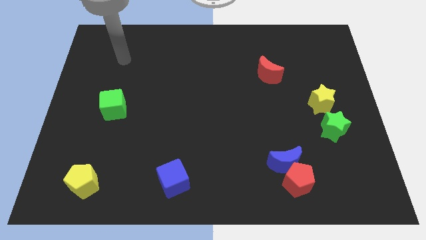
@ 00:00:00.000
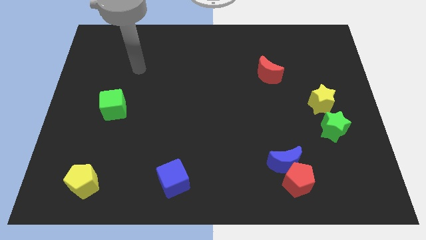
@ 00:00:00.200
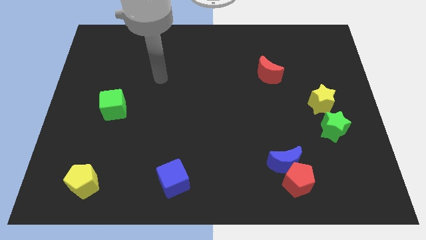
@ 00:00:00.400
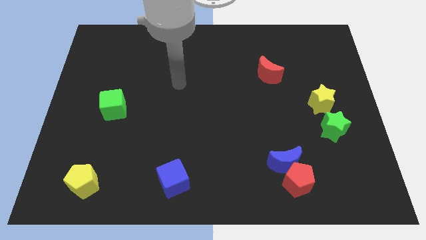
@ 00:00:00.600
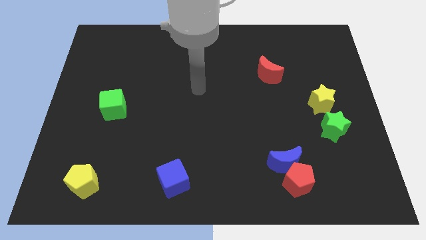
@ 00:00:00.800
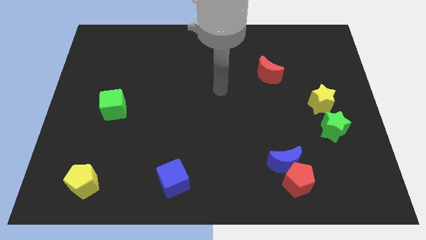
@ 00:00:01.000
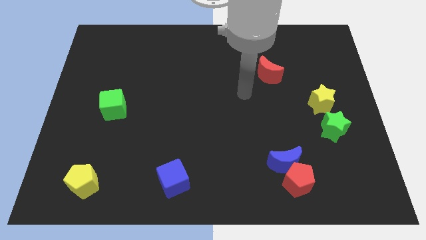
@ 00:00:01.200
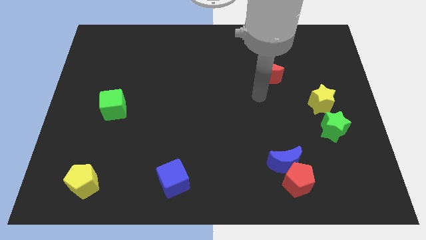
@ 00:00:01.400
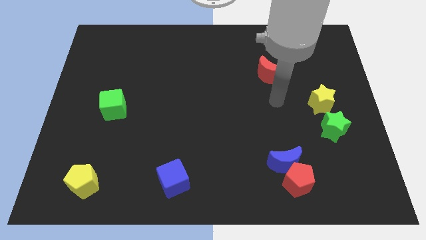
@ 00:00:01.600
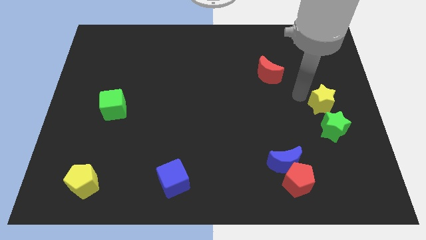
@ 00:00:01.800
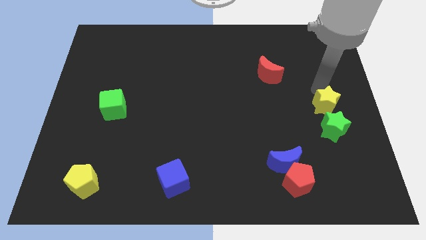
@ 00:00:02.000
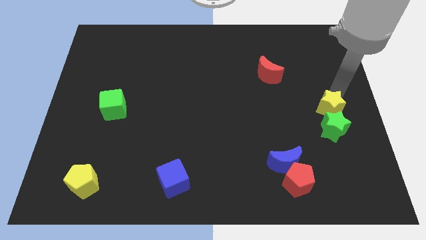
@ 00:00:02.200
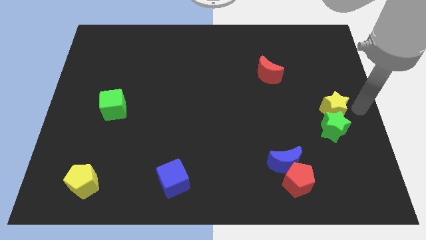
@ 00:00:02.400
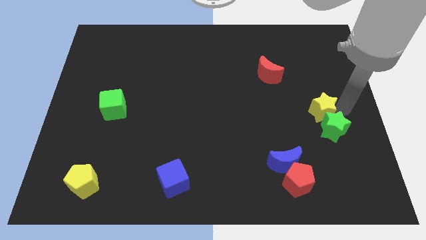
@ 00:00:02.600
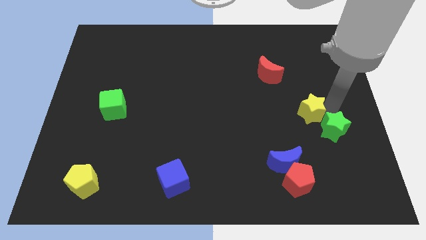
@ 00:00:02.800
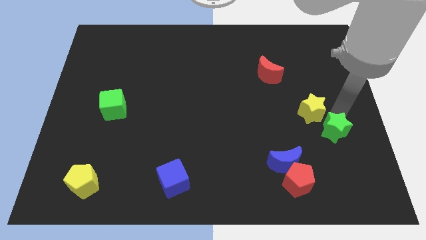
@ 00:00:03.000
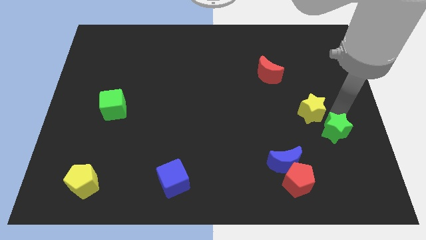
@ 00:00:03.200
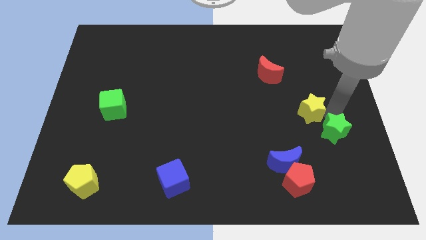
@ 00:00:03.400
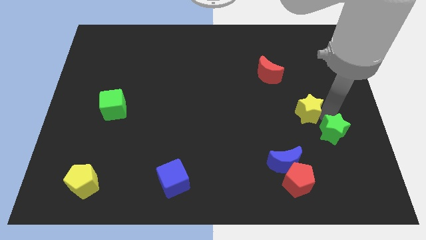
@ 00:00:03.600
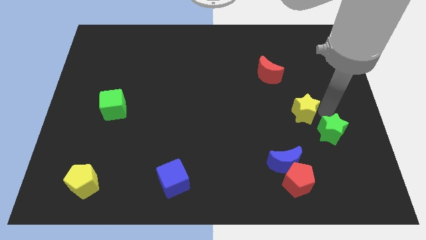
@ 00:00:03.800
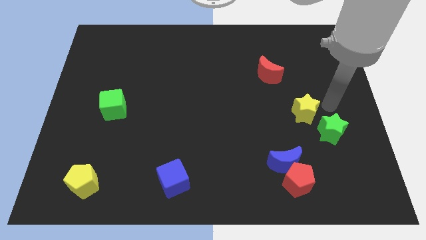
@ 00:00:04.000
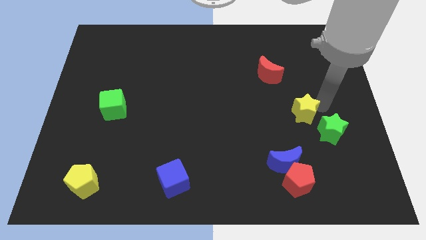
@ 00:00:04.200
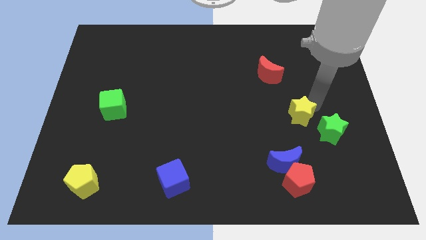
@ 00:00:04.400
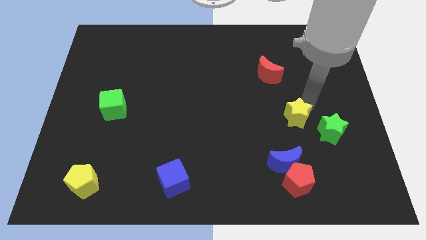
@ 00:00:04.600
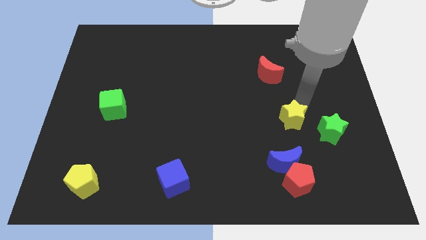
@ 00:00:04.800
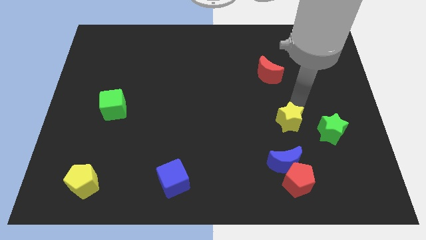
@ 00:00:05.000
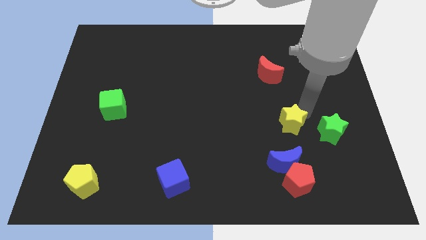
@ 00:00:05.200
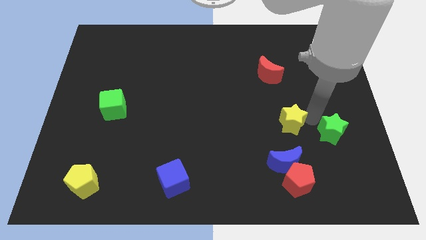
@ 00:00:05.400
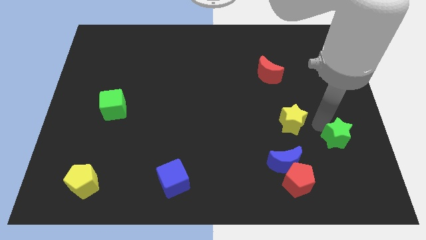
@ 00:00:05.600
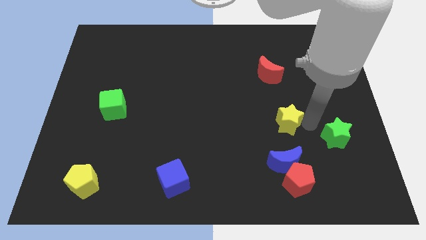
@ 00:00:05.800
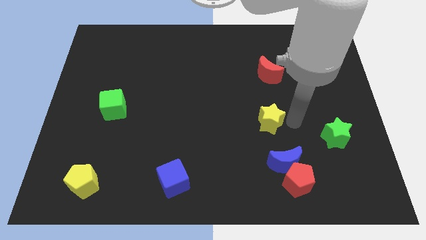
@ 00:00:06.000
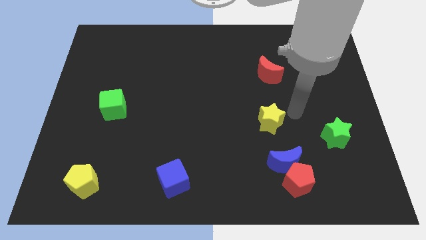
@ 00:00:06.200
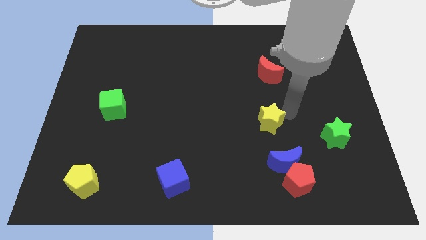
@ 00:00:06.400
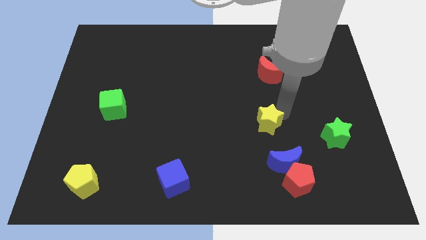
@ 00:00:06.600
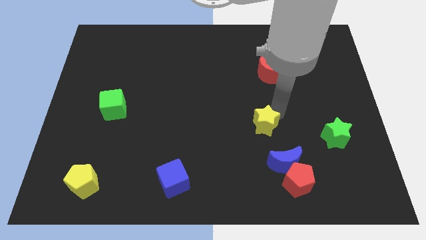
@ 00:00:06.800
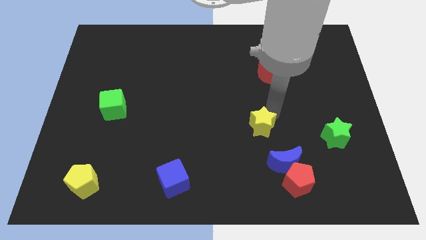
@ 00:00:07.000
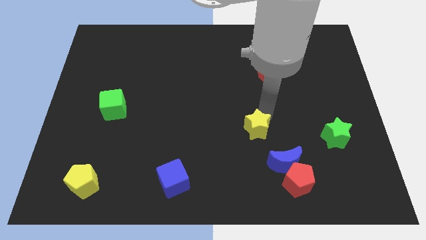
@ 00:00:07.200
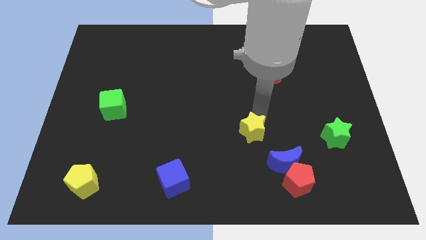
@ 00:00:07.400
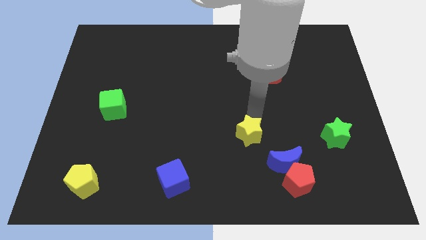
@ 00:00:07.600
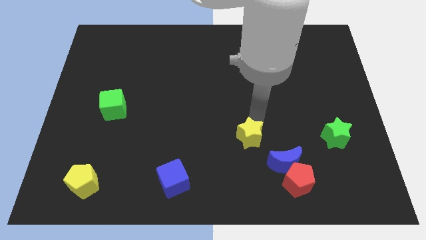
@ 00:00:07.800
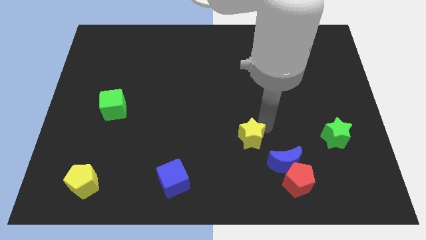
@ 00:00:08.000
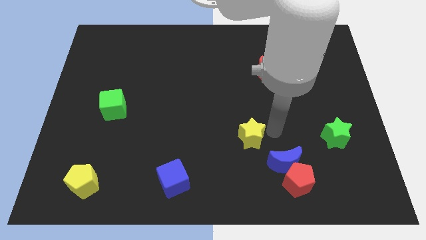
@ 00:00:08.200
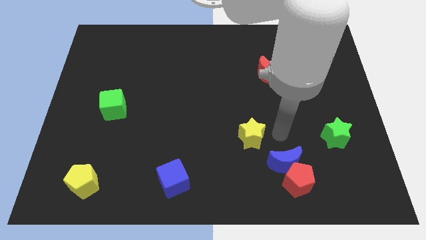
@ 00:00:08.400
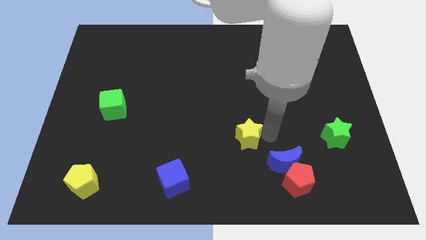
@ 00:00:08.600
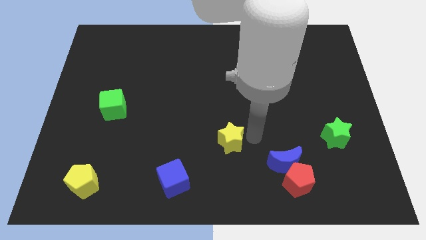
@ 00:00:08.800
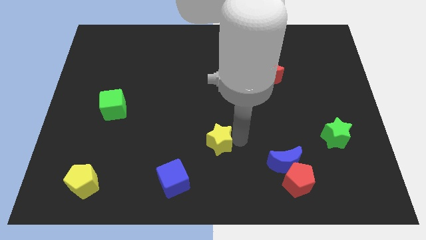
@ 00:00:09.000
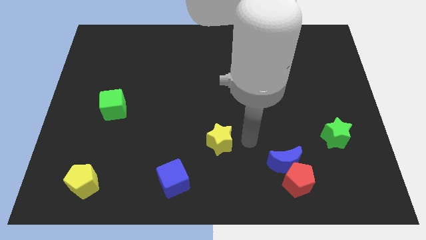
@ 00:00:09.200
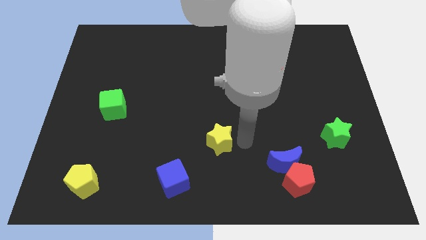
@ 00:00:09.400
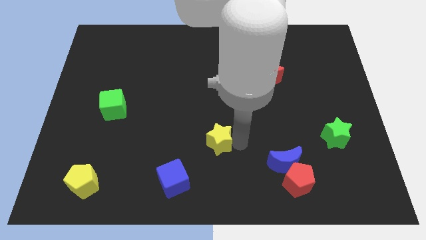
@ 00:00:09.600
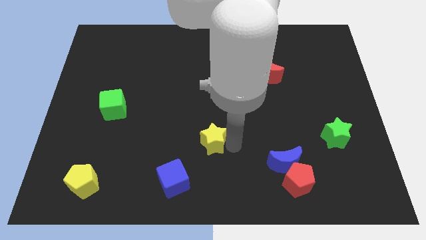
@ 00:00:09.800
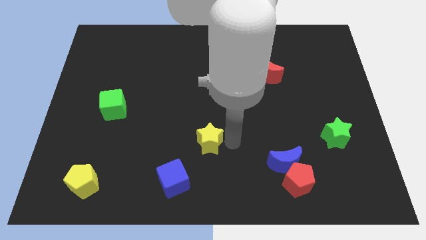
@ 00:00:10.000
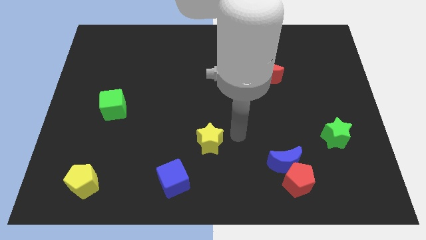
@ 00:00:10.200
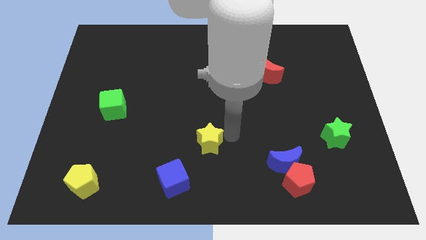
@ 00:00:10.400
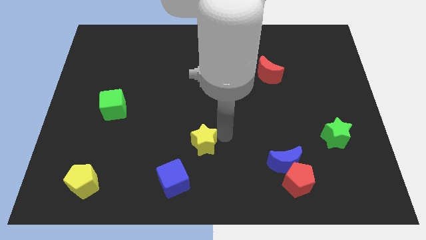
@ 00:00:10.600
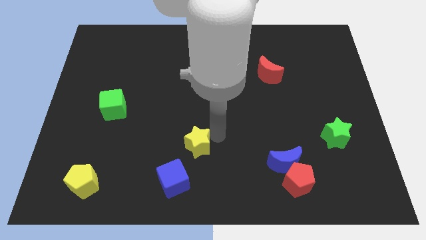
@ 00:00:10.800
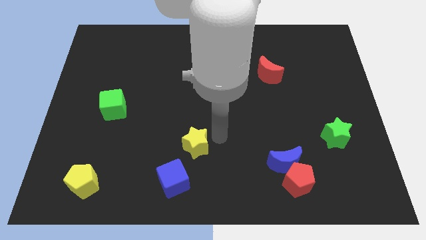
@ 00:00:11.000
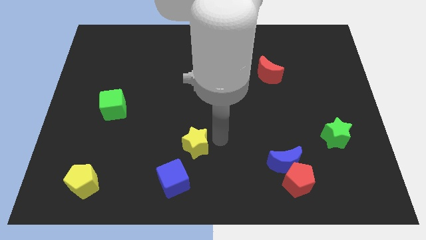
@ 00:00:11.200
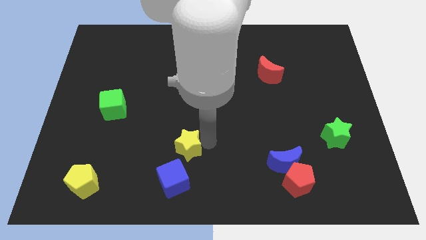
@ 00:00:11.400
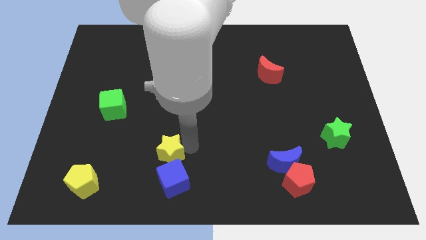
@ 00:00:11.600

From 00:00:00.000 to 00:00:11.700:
push the yellow star diagonally up and to the left of the blue cube
